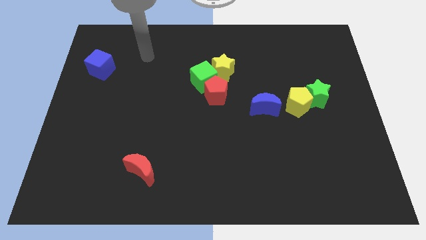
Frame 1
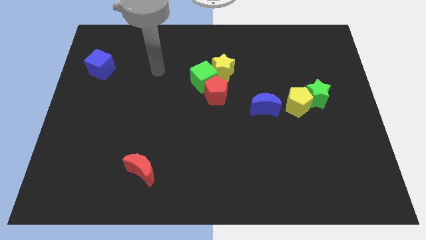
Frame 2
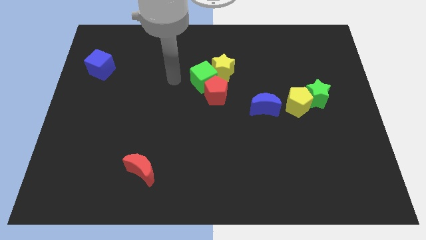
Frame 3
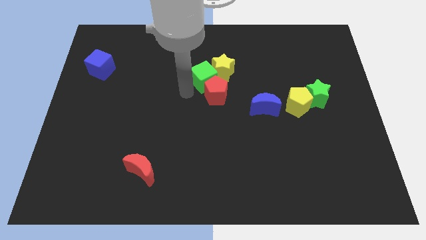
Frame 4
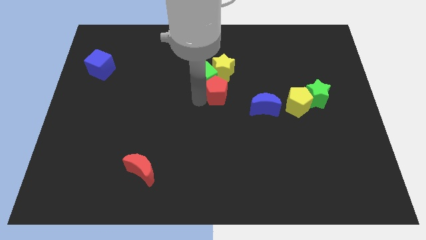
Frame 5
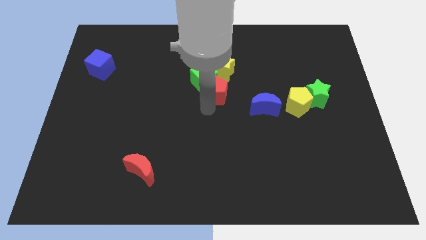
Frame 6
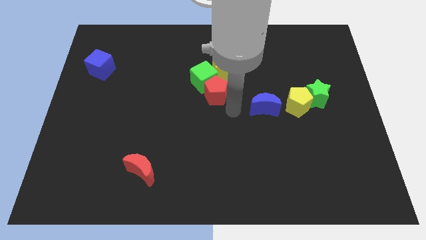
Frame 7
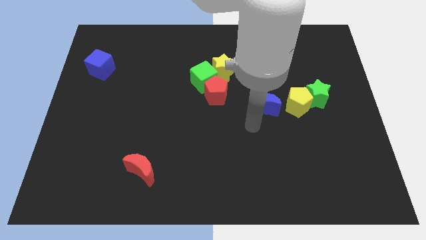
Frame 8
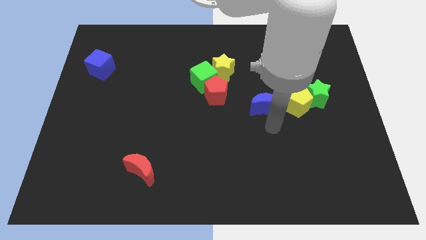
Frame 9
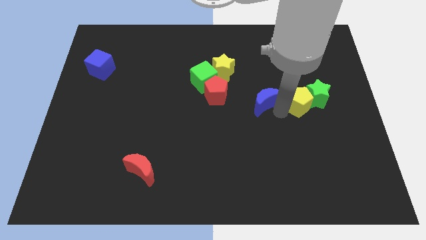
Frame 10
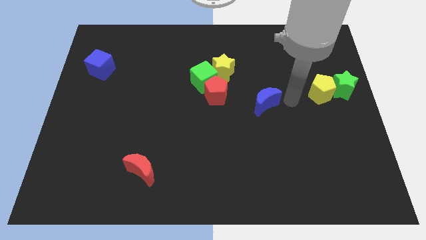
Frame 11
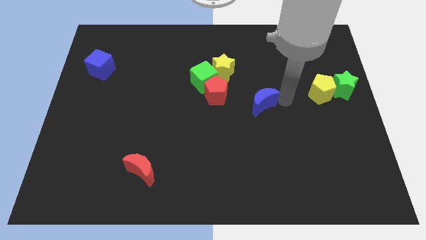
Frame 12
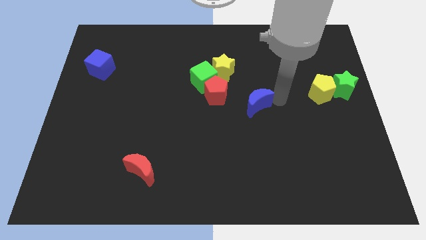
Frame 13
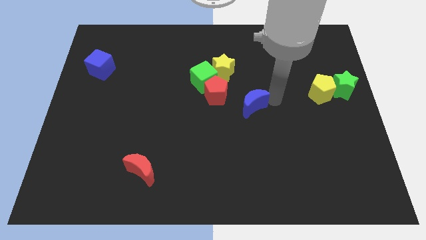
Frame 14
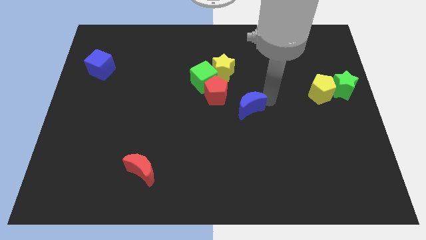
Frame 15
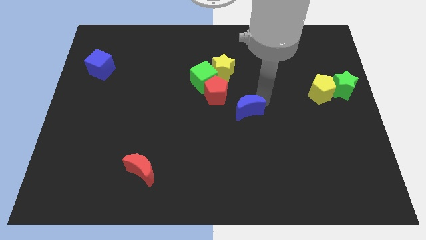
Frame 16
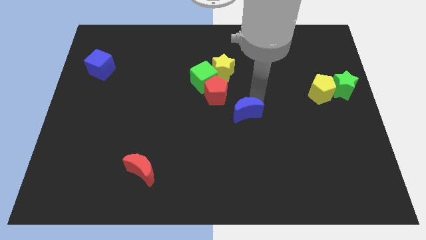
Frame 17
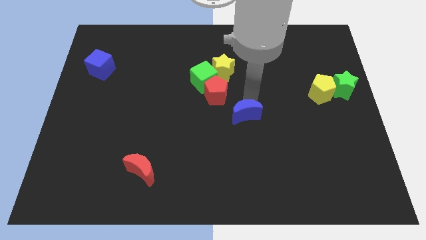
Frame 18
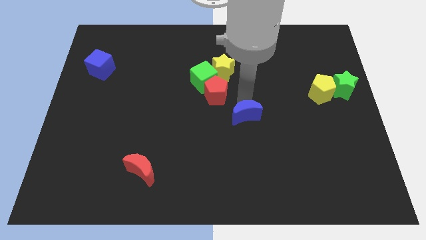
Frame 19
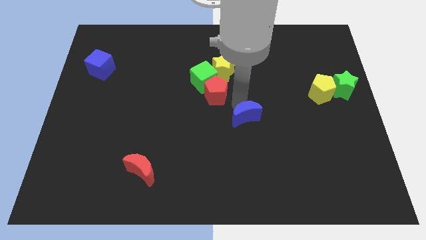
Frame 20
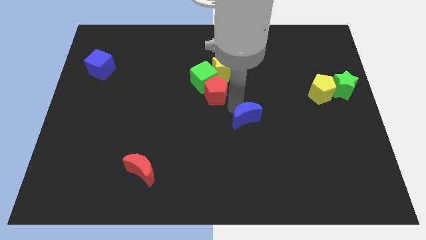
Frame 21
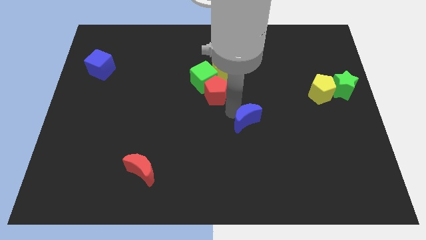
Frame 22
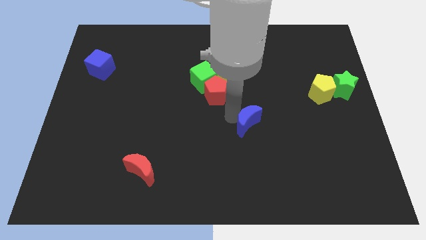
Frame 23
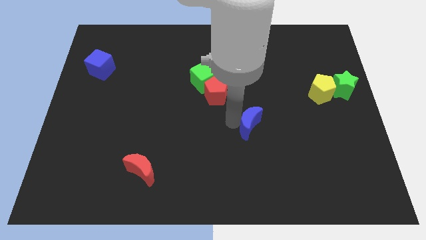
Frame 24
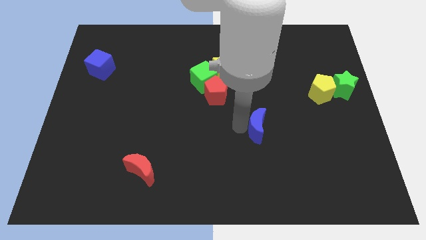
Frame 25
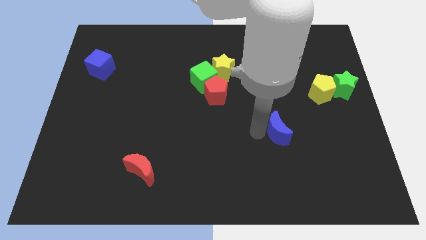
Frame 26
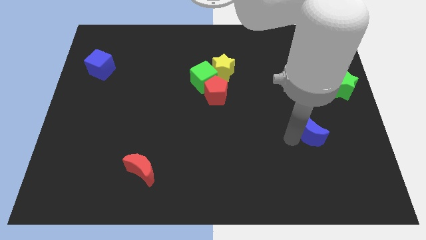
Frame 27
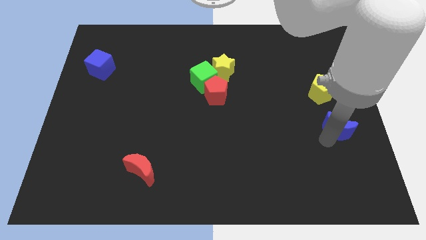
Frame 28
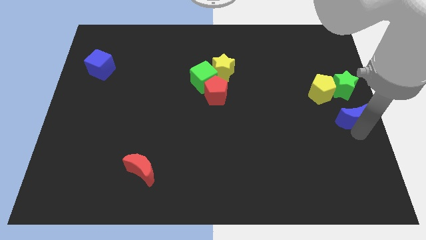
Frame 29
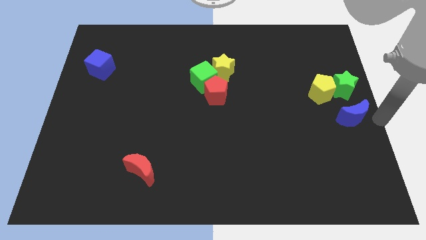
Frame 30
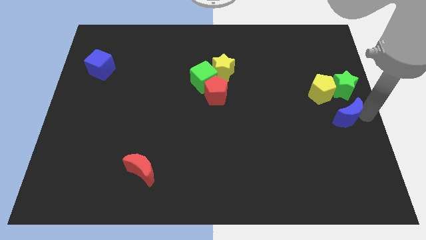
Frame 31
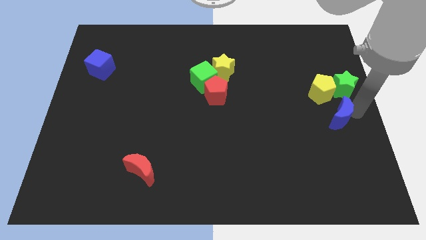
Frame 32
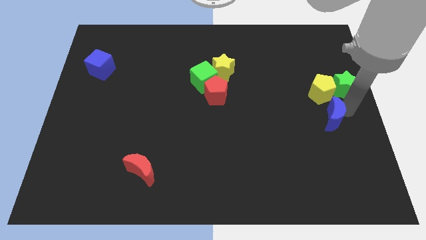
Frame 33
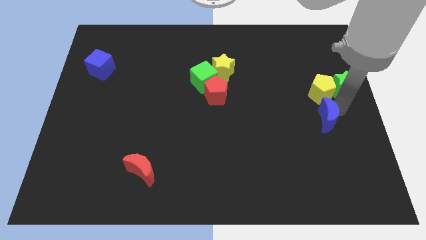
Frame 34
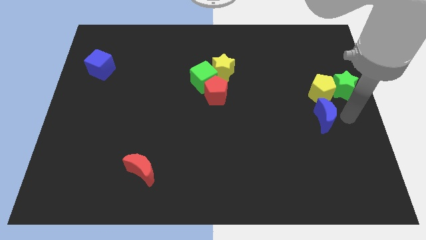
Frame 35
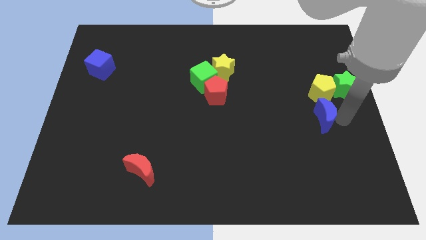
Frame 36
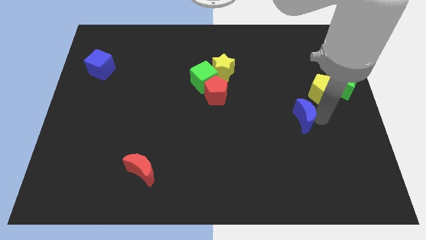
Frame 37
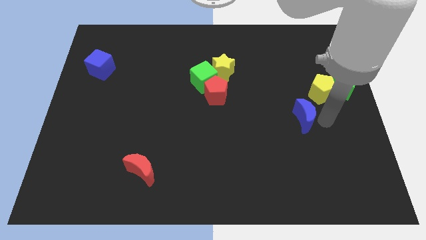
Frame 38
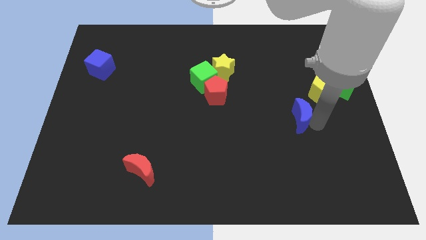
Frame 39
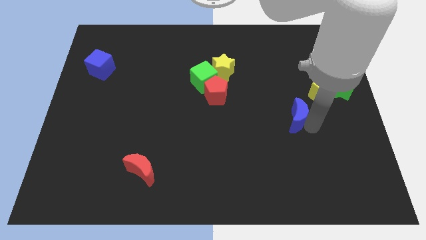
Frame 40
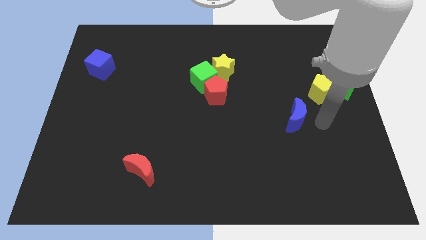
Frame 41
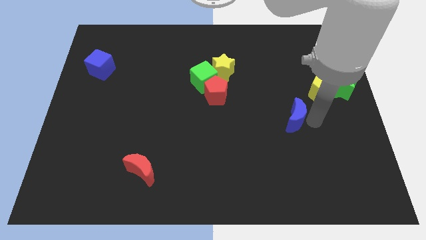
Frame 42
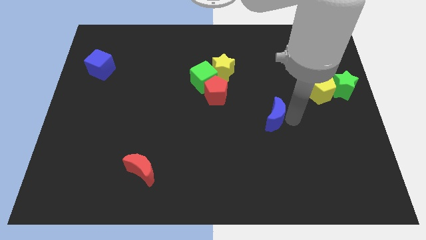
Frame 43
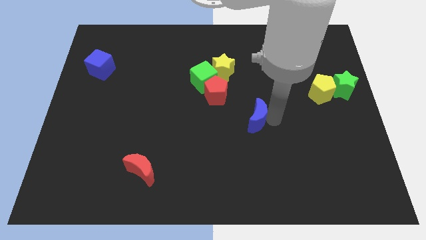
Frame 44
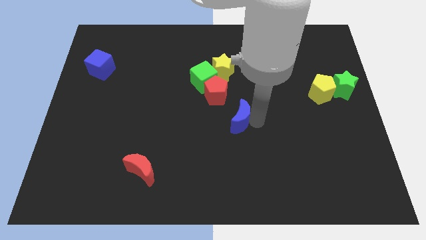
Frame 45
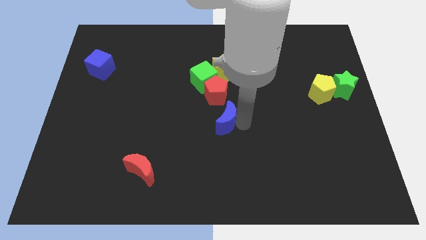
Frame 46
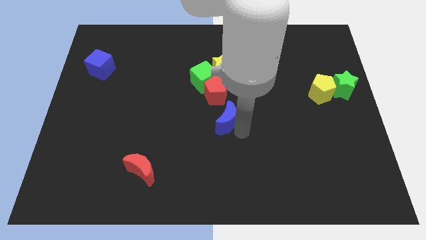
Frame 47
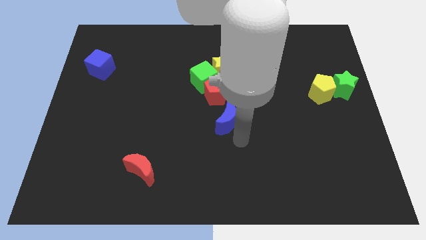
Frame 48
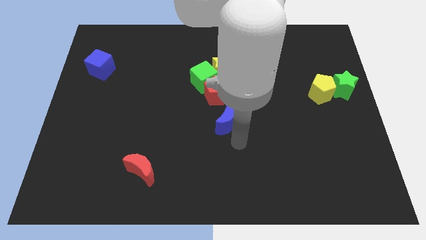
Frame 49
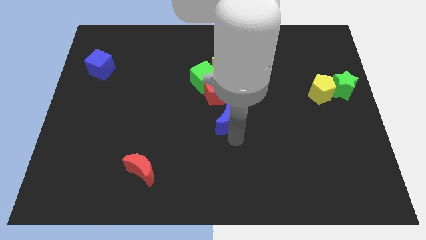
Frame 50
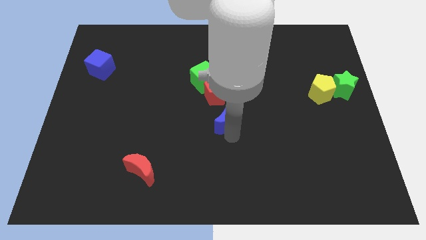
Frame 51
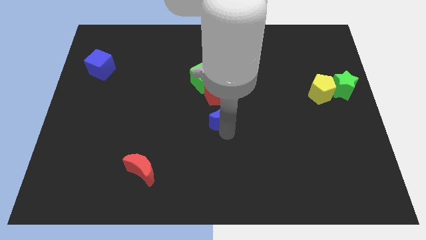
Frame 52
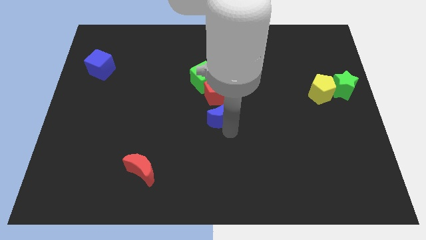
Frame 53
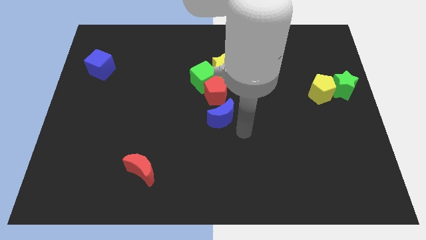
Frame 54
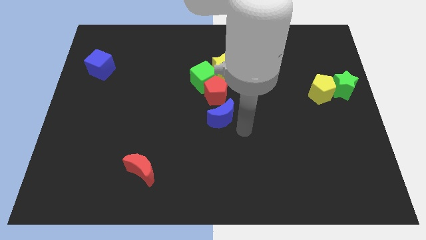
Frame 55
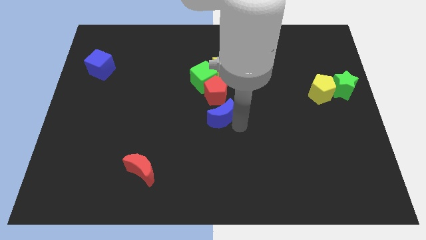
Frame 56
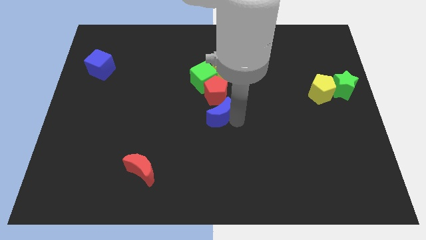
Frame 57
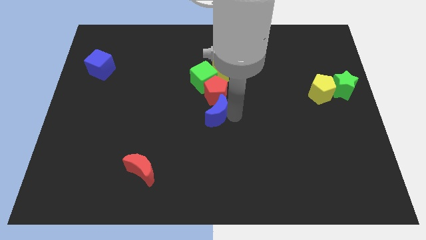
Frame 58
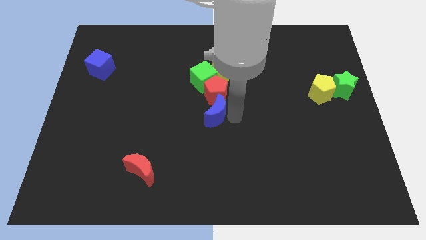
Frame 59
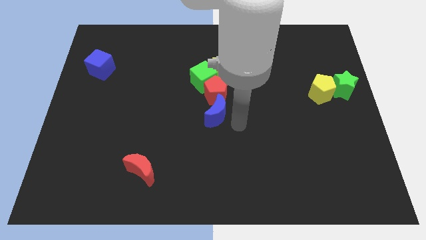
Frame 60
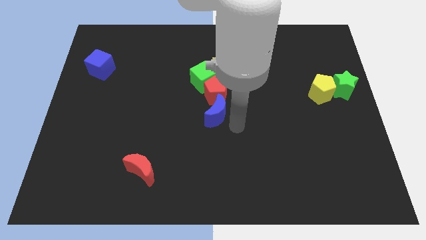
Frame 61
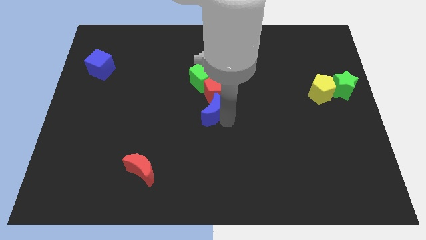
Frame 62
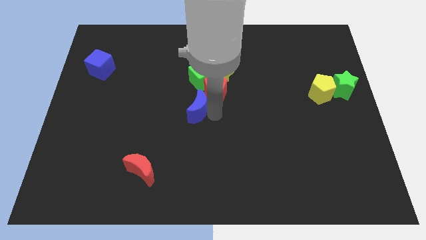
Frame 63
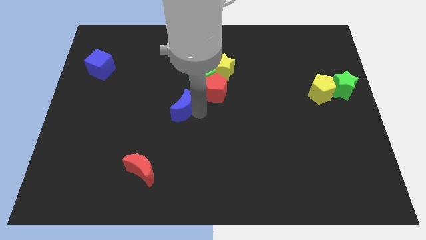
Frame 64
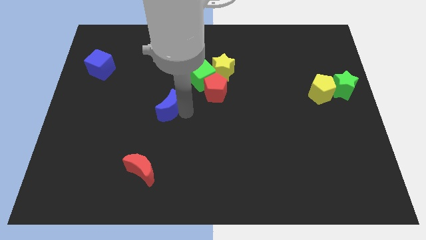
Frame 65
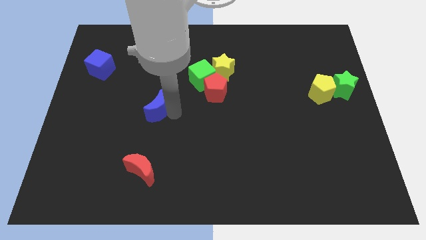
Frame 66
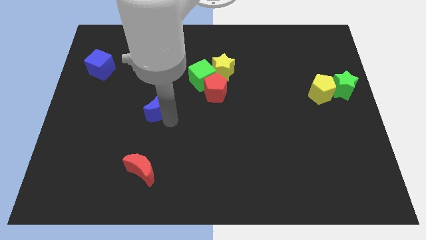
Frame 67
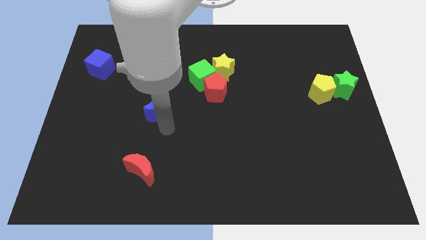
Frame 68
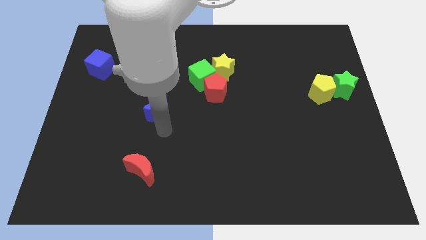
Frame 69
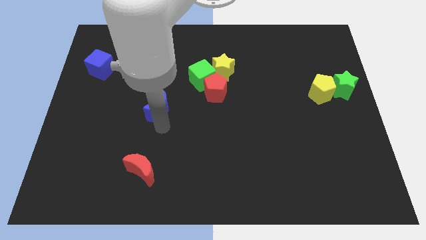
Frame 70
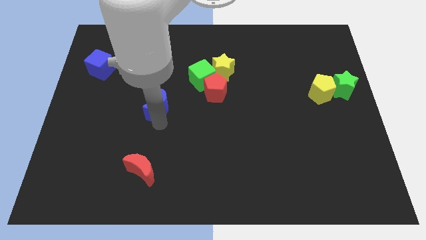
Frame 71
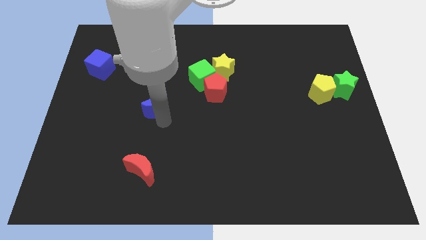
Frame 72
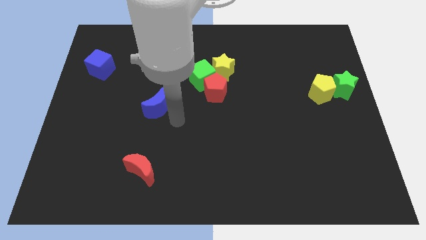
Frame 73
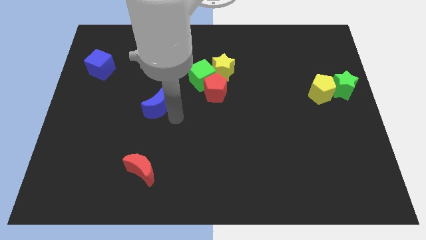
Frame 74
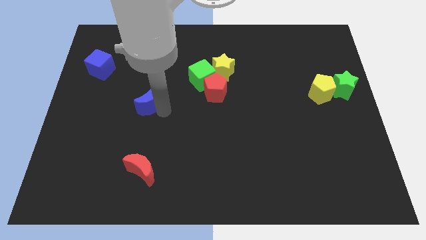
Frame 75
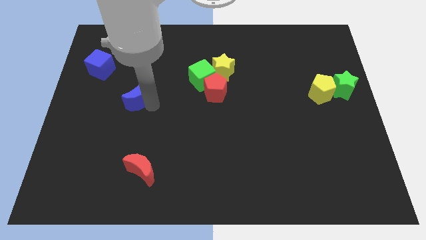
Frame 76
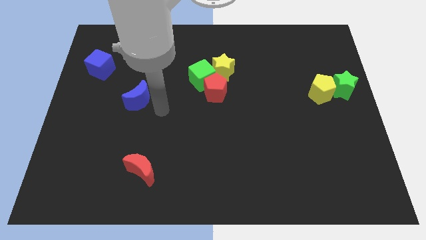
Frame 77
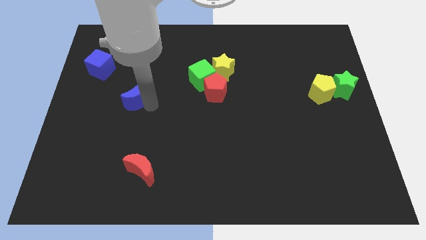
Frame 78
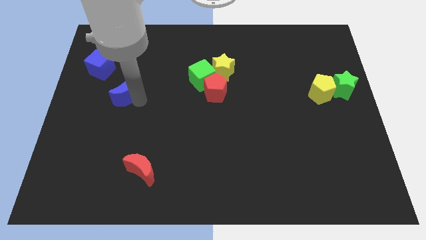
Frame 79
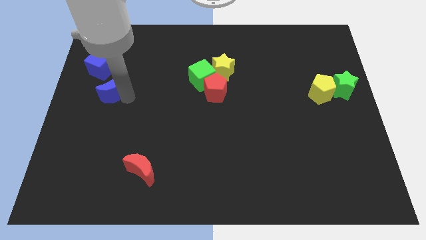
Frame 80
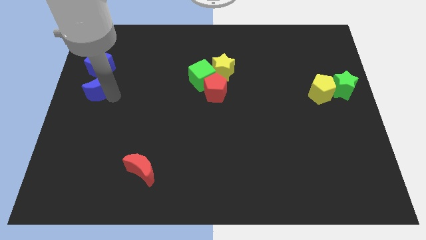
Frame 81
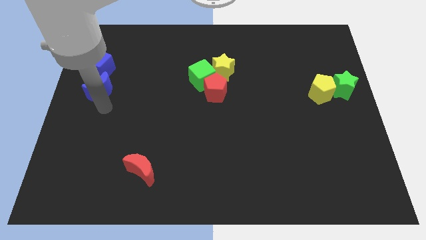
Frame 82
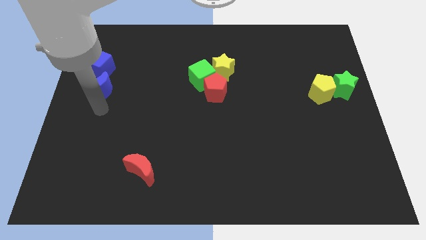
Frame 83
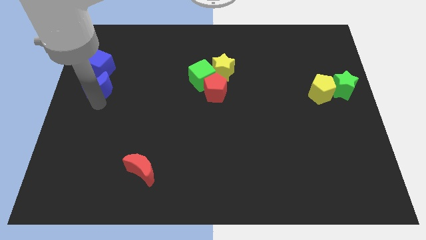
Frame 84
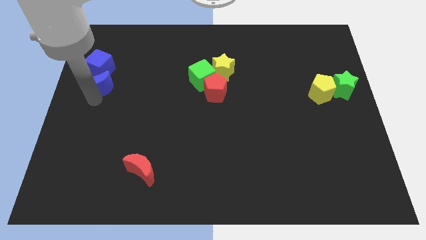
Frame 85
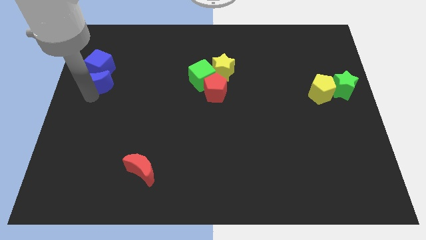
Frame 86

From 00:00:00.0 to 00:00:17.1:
put the blue moon next to the blue cube
